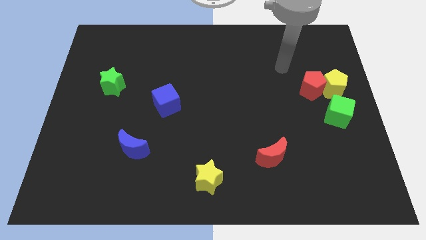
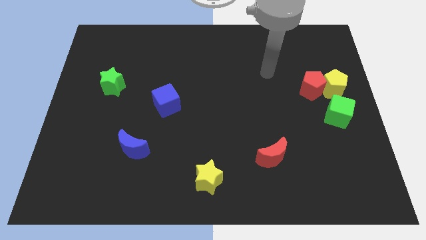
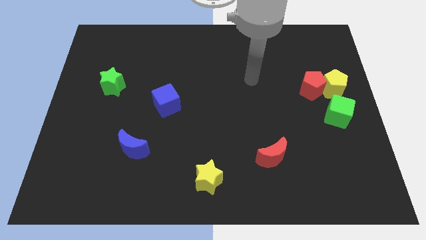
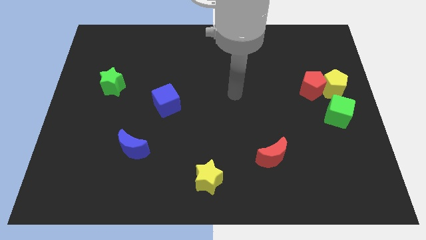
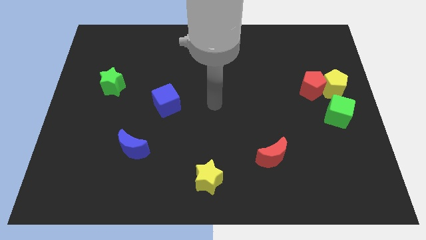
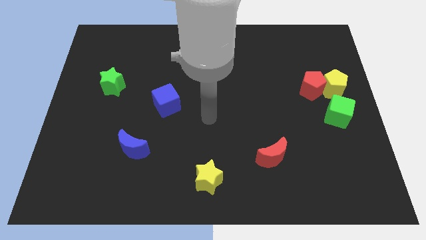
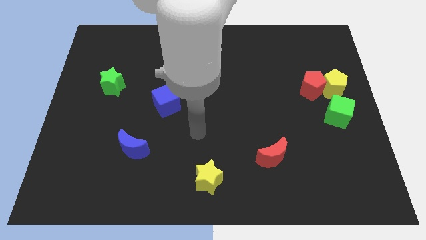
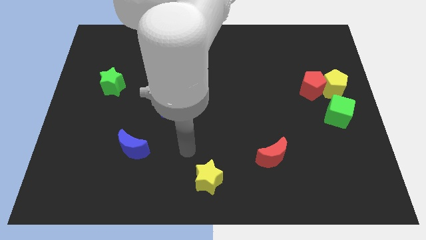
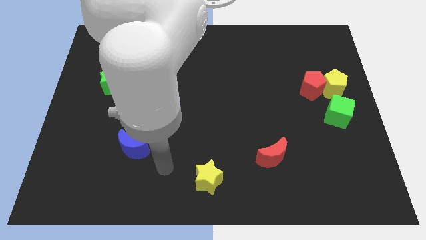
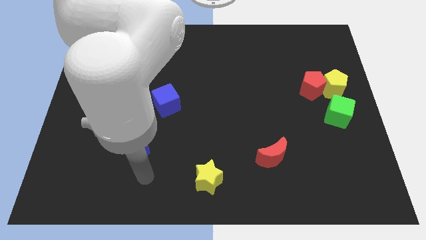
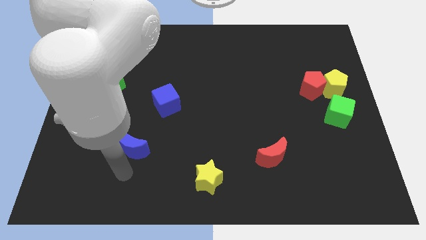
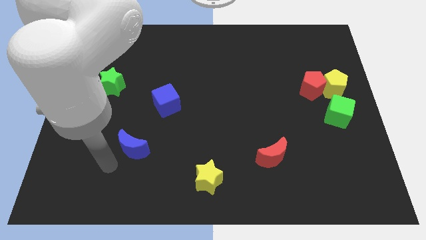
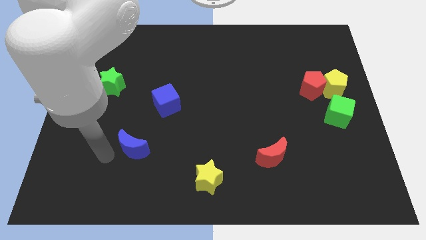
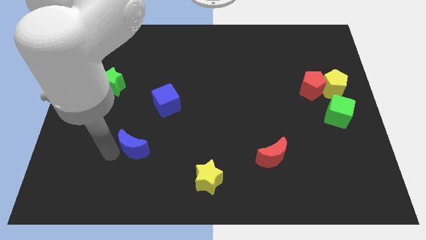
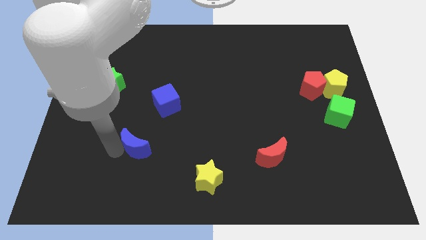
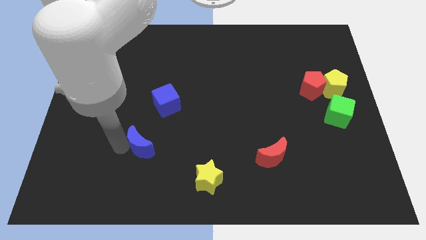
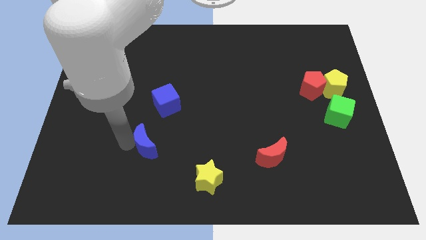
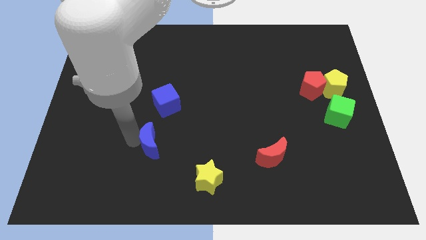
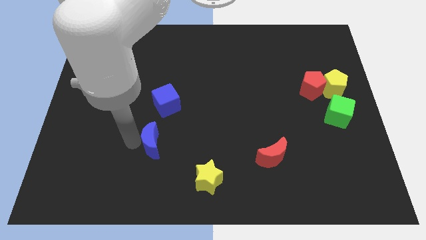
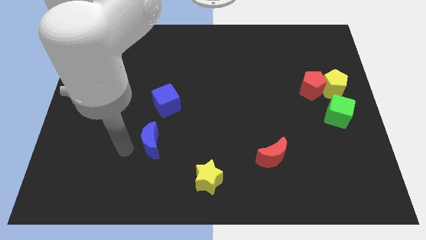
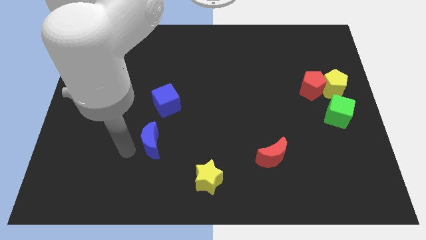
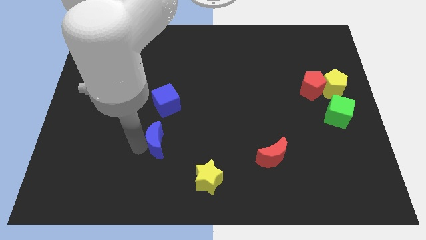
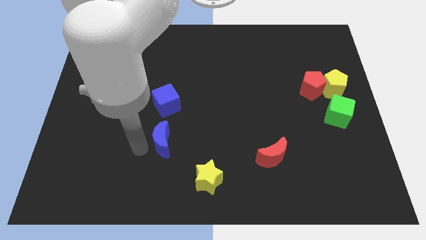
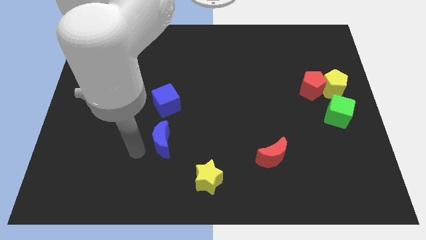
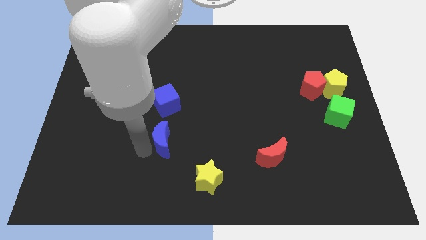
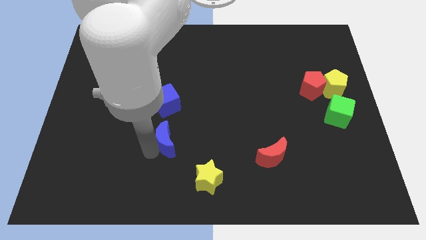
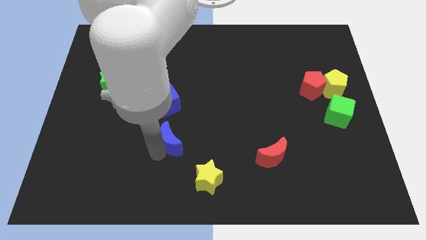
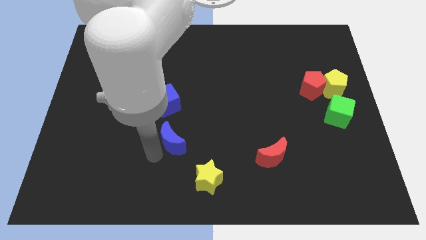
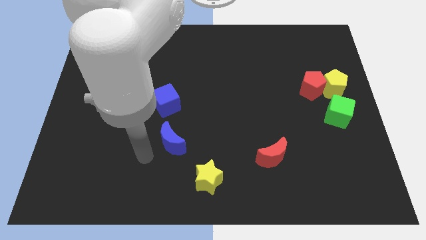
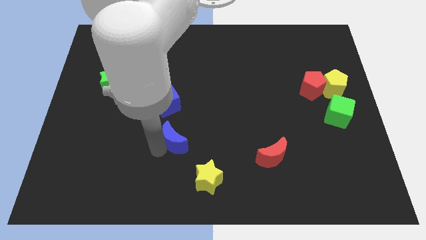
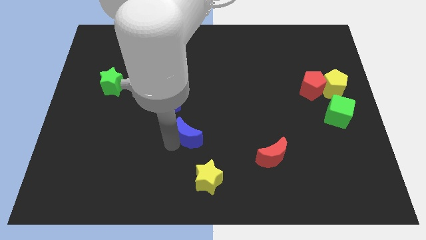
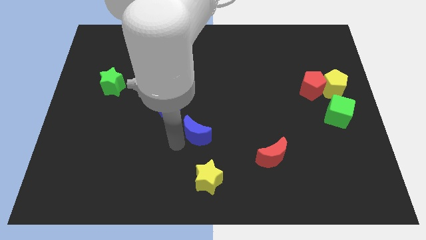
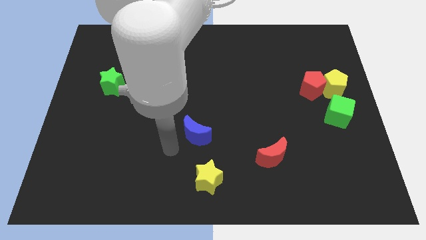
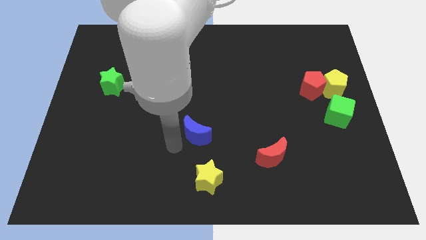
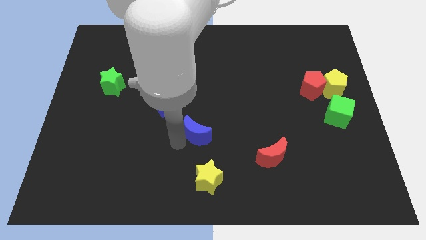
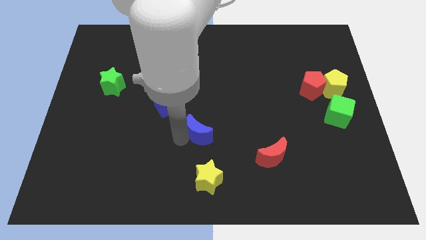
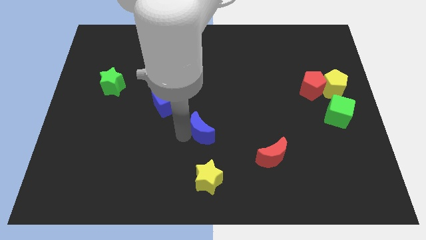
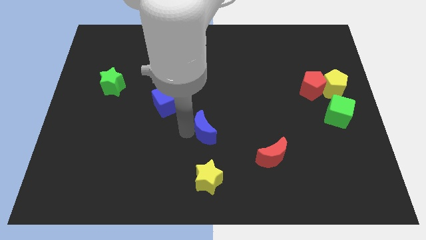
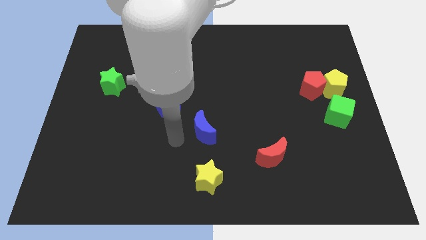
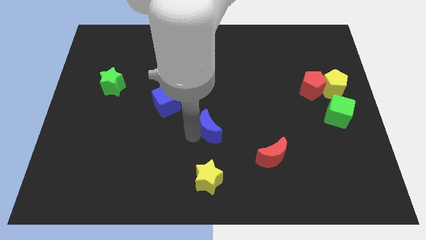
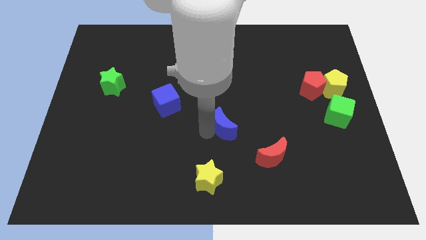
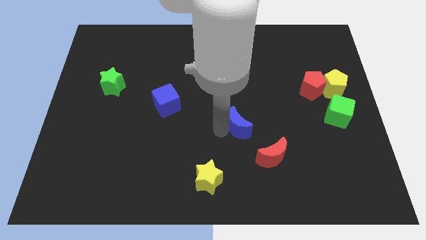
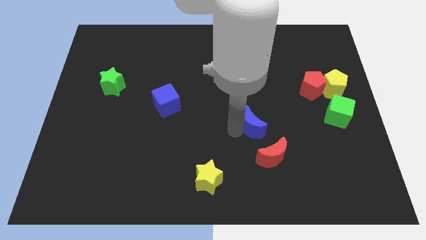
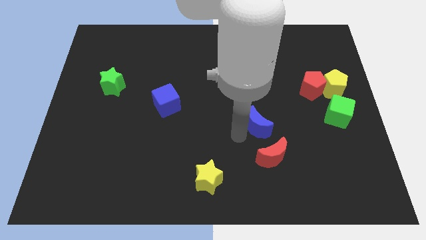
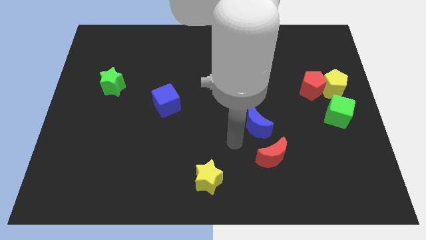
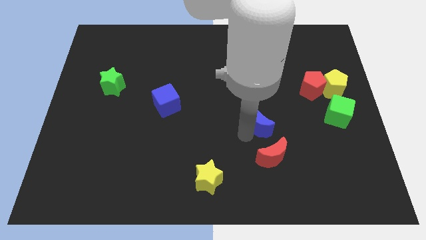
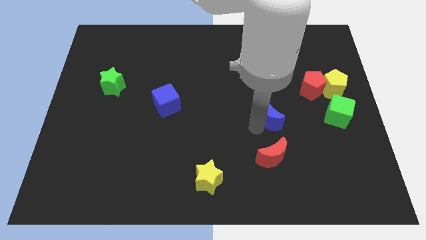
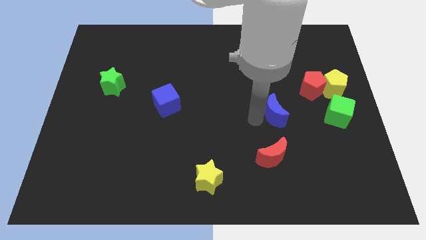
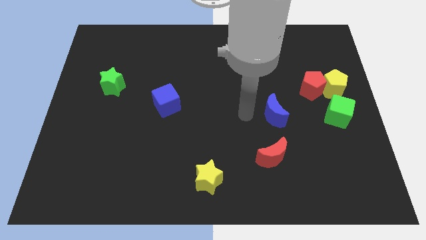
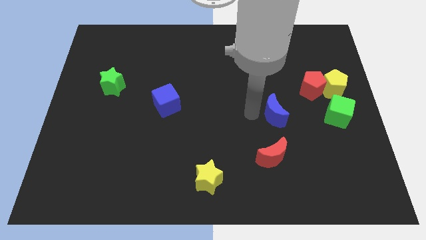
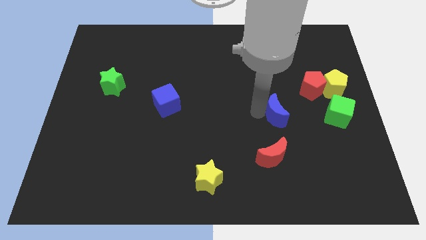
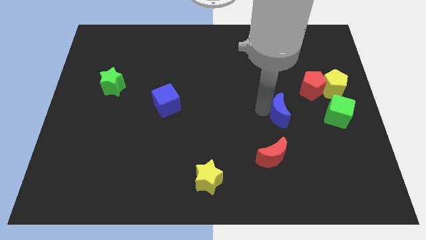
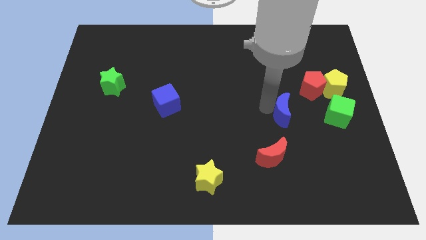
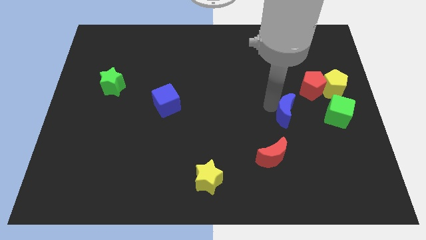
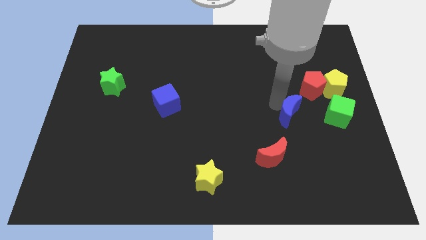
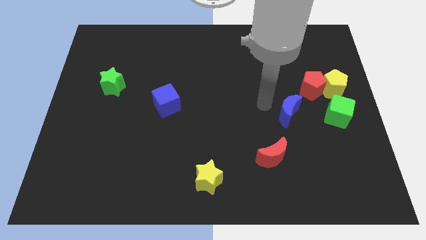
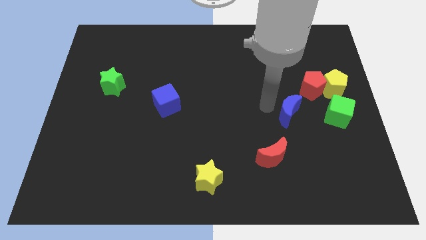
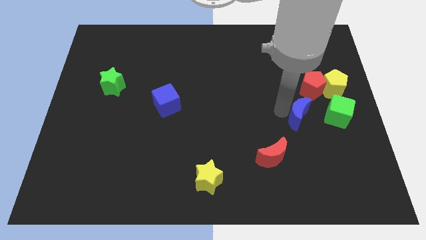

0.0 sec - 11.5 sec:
move the blue moon to the bottom side of the red pentagon

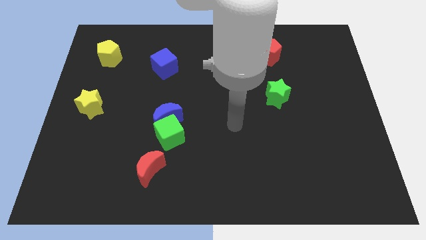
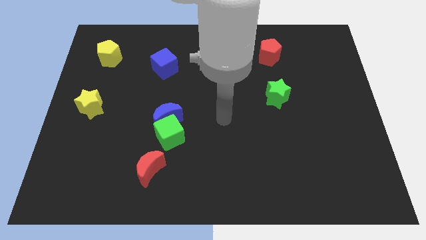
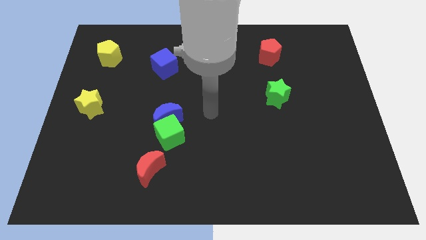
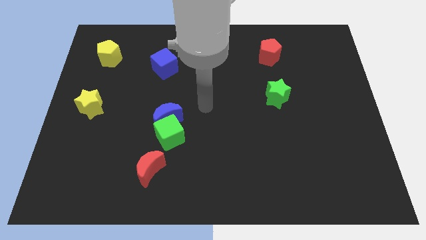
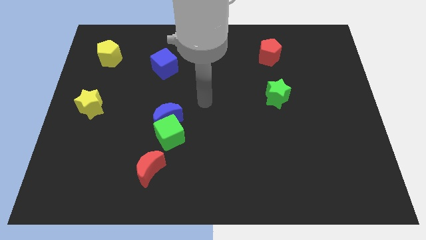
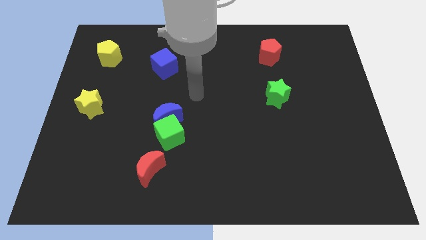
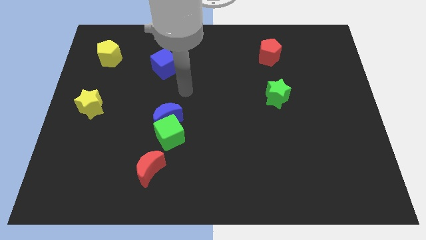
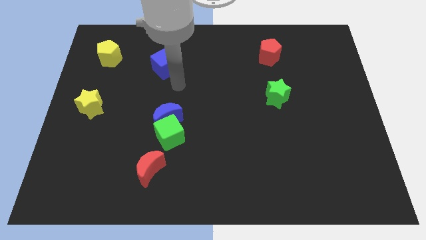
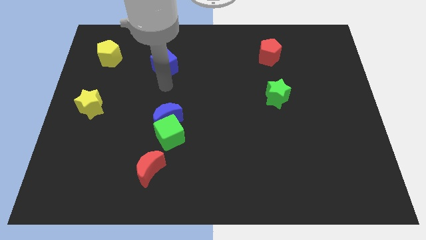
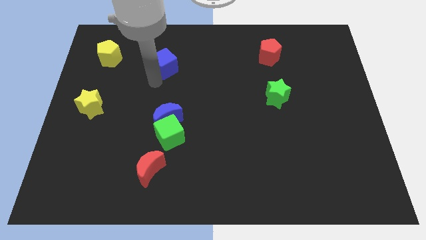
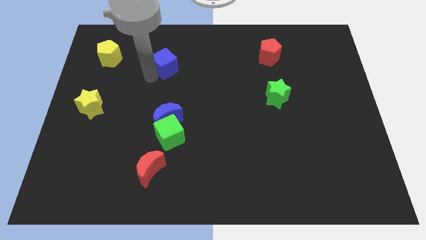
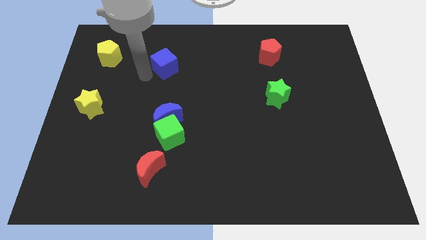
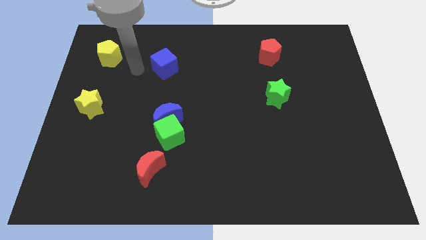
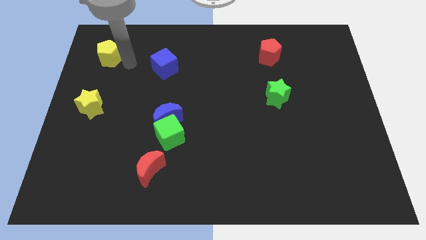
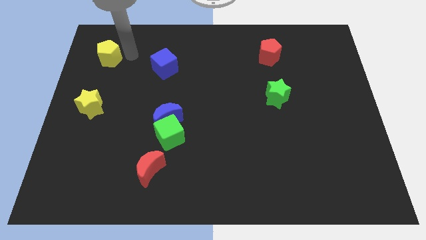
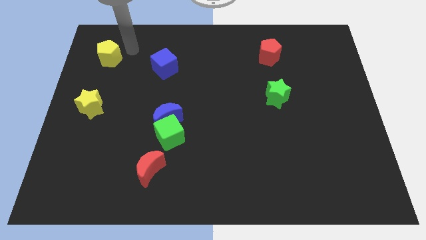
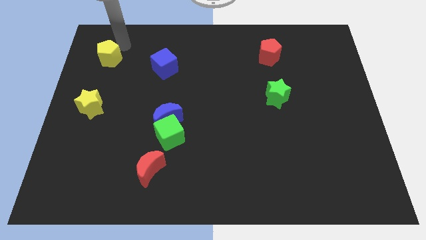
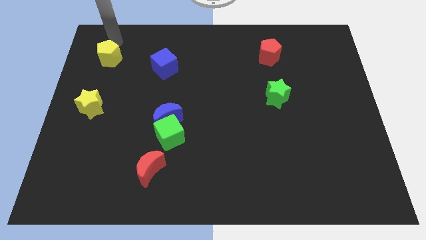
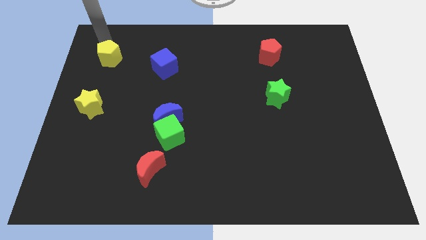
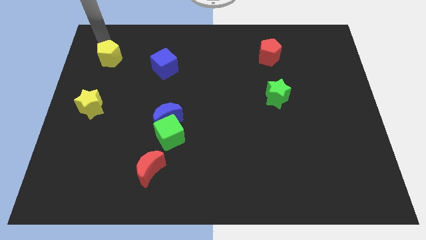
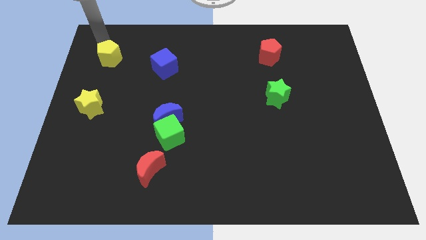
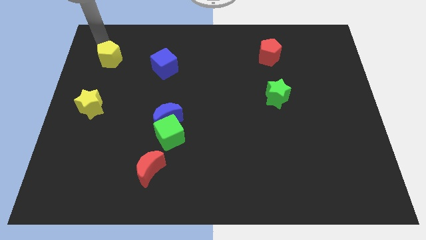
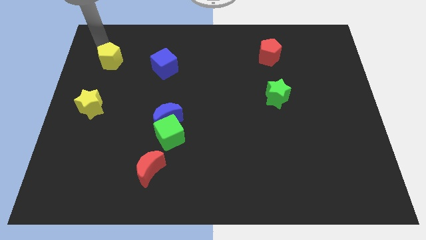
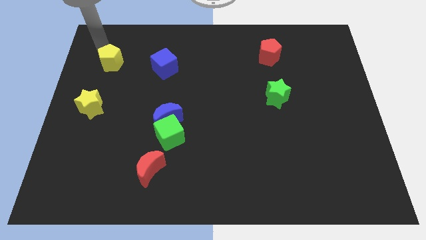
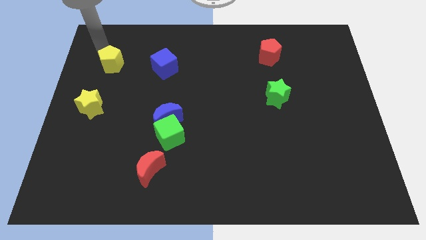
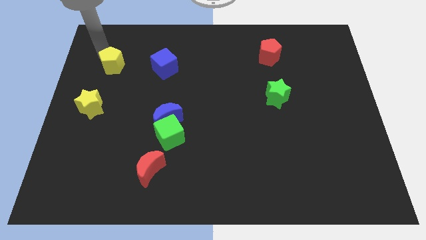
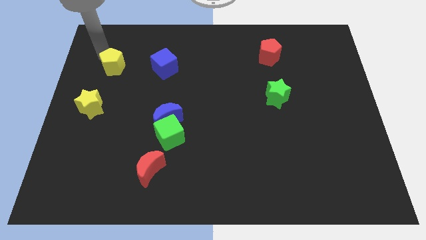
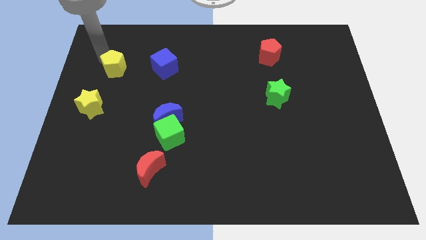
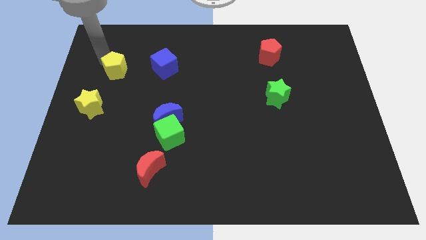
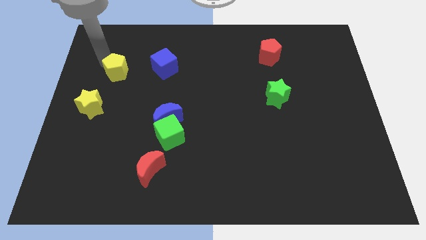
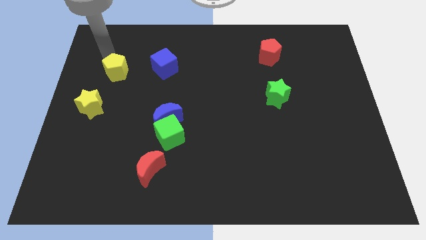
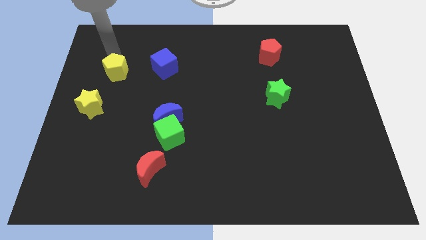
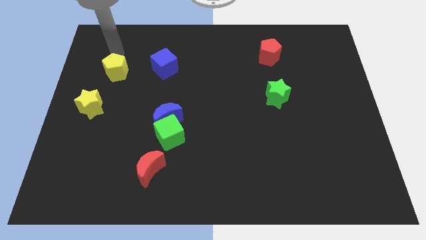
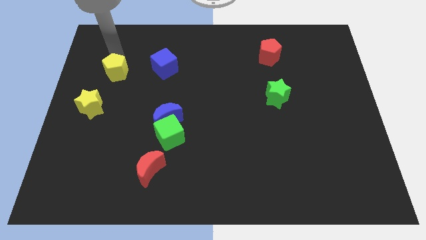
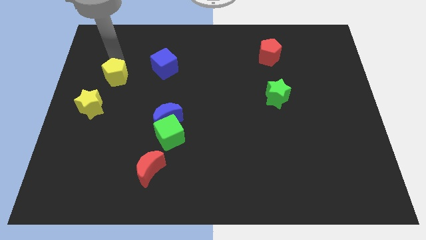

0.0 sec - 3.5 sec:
slide the yellow pentagon to the top right of the yellow star
